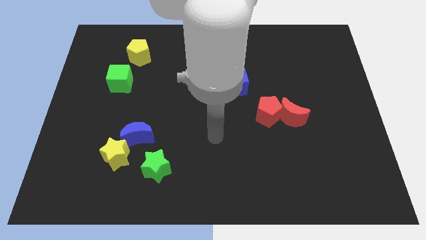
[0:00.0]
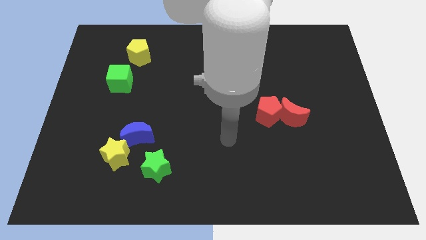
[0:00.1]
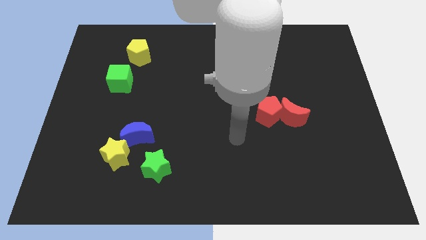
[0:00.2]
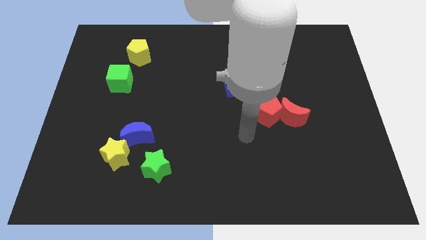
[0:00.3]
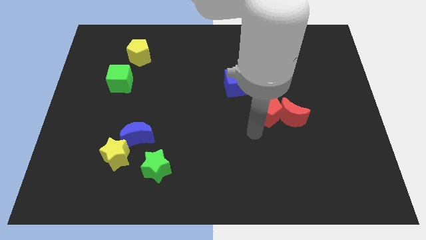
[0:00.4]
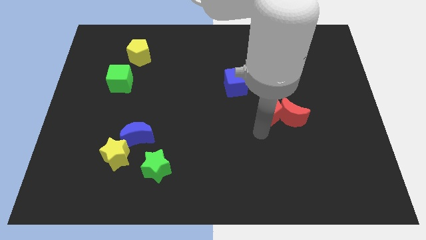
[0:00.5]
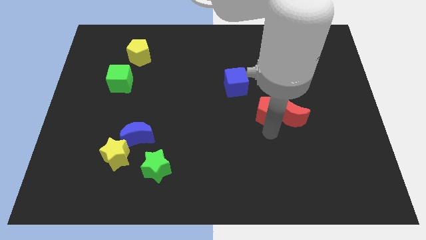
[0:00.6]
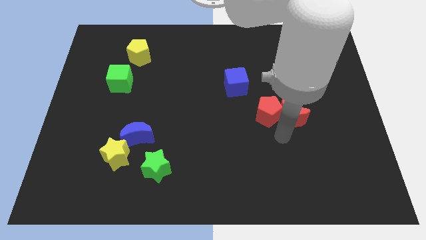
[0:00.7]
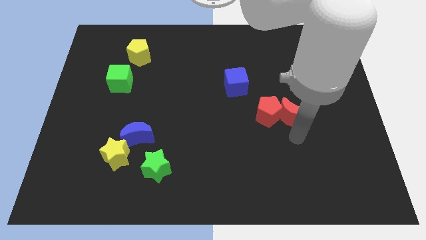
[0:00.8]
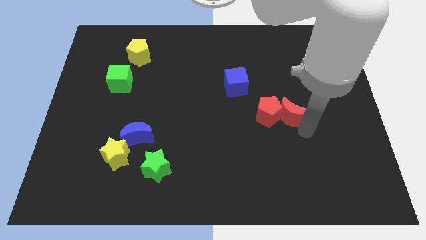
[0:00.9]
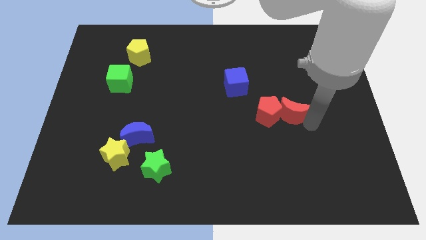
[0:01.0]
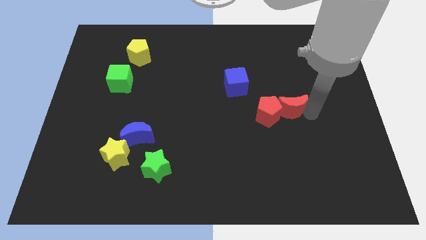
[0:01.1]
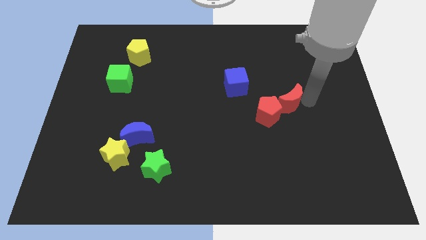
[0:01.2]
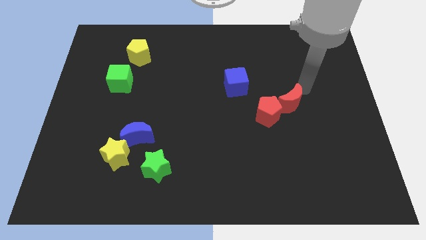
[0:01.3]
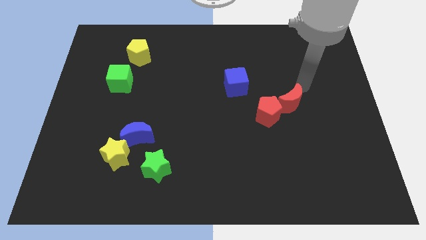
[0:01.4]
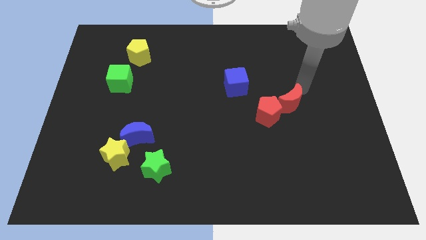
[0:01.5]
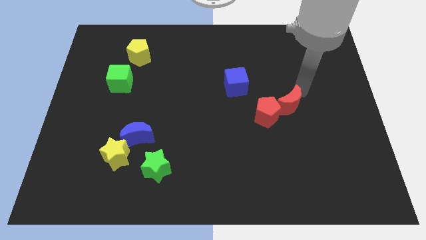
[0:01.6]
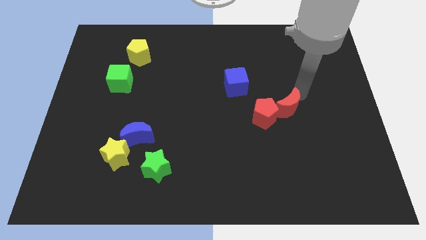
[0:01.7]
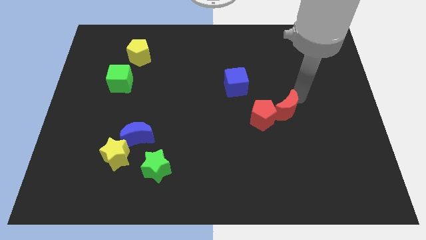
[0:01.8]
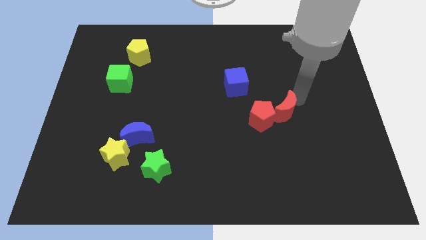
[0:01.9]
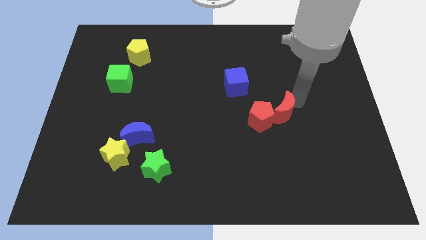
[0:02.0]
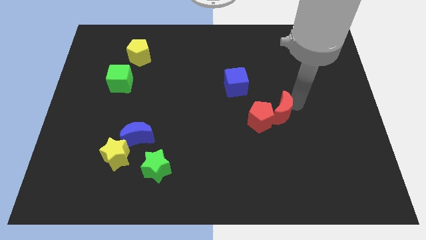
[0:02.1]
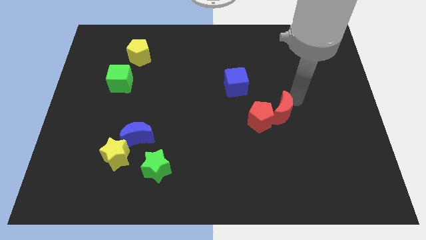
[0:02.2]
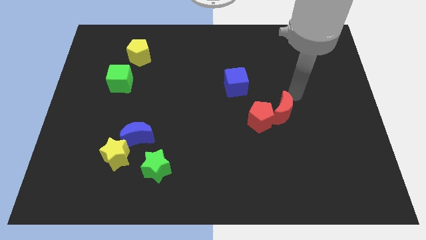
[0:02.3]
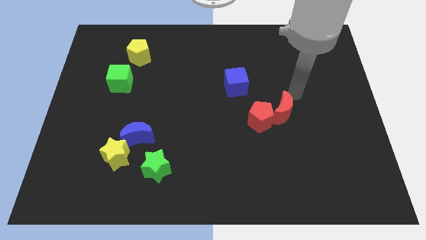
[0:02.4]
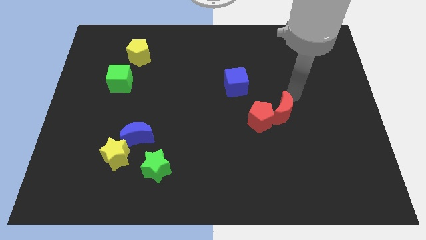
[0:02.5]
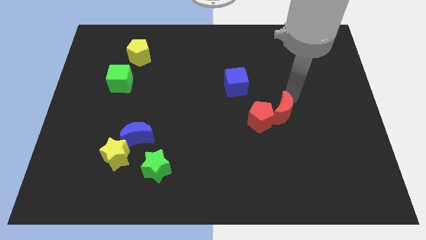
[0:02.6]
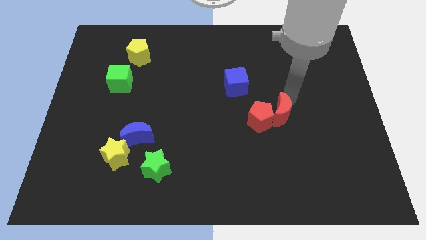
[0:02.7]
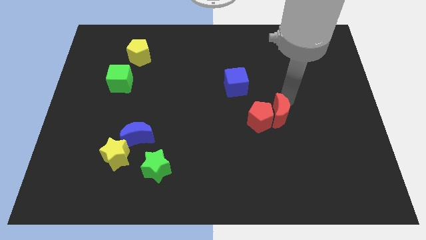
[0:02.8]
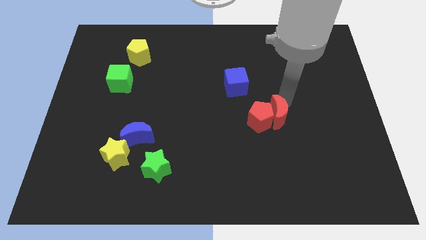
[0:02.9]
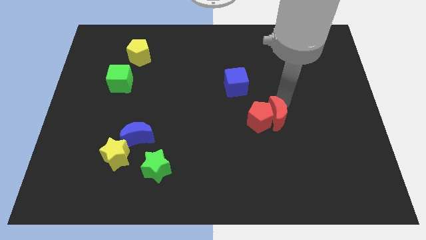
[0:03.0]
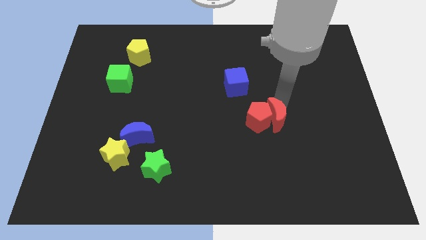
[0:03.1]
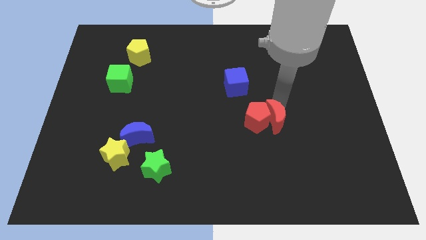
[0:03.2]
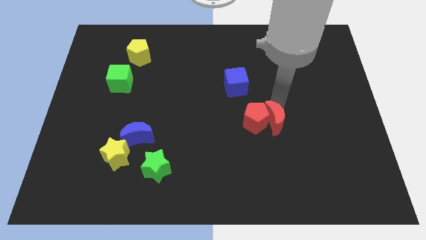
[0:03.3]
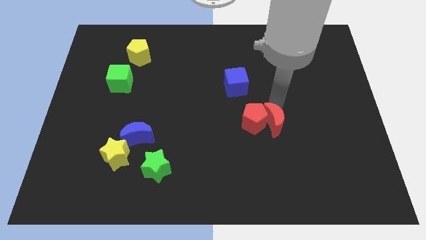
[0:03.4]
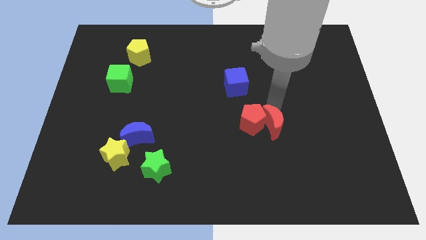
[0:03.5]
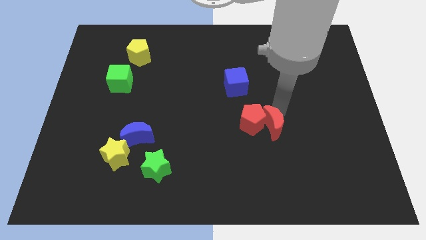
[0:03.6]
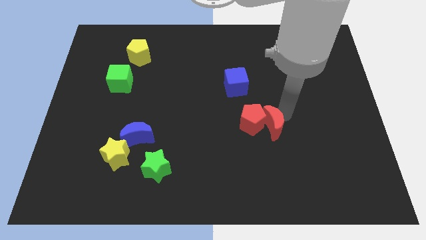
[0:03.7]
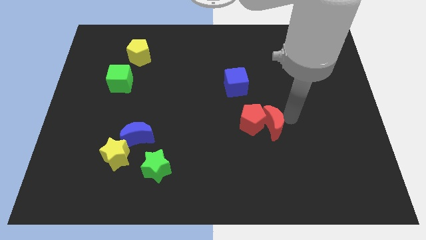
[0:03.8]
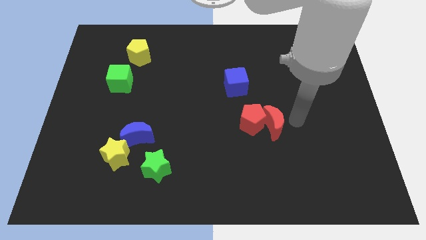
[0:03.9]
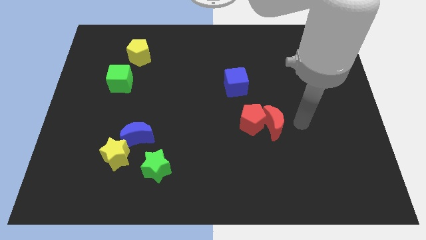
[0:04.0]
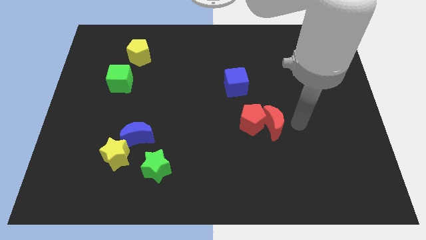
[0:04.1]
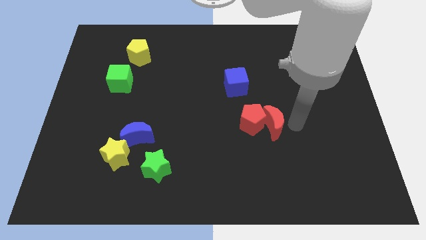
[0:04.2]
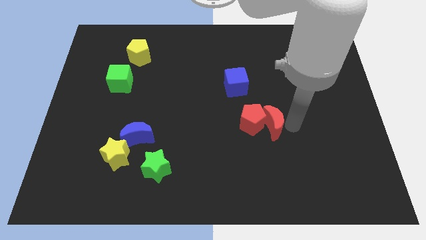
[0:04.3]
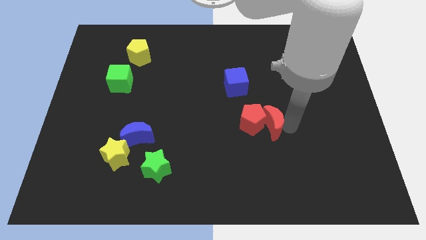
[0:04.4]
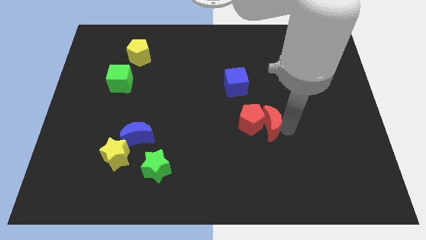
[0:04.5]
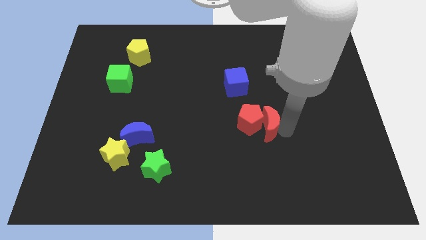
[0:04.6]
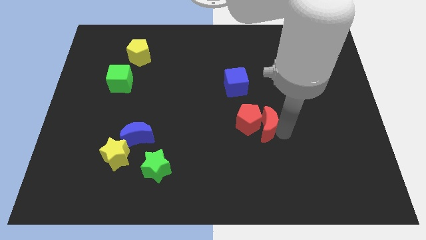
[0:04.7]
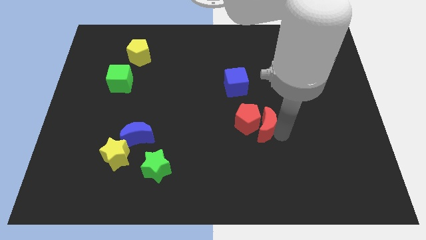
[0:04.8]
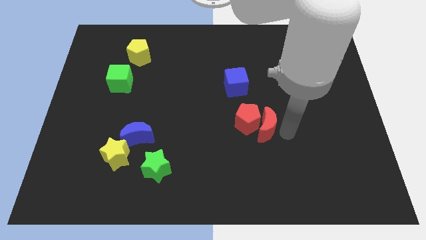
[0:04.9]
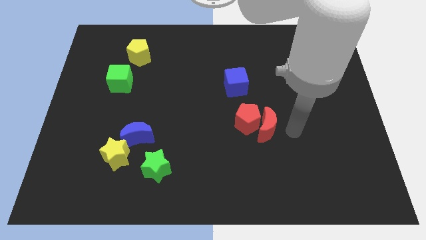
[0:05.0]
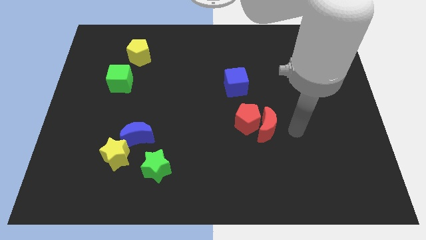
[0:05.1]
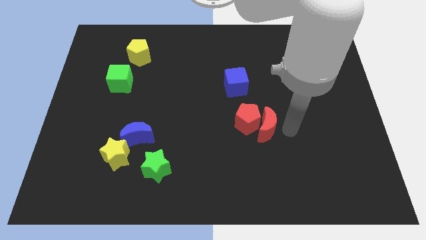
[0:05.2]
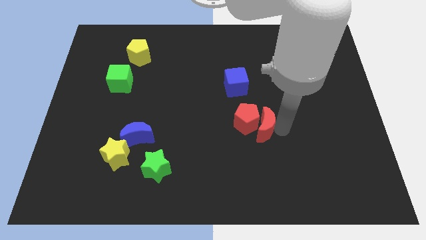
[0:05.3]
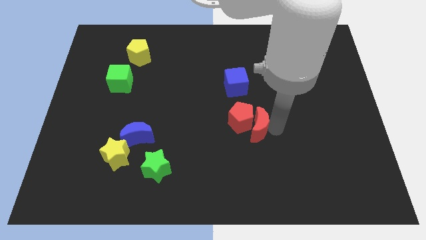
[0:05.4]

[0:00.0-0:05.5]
move the red moon slightly to the left

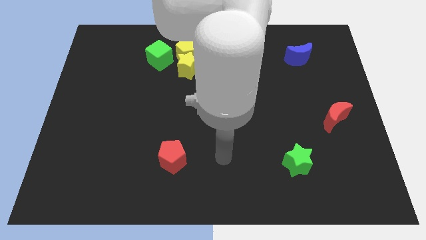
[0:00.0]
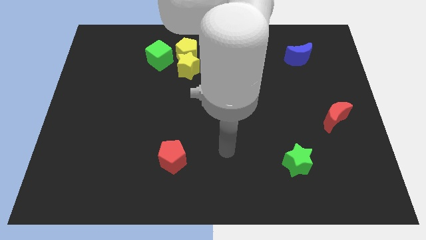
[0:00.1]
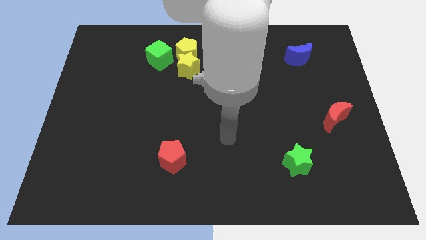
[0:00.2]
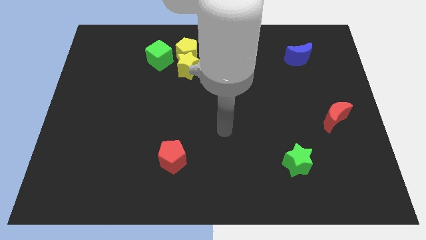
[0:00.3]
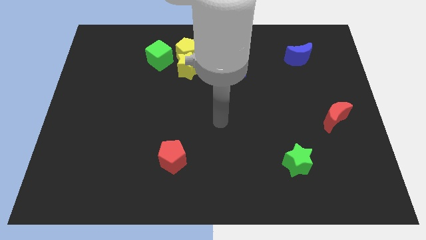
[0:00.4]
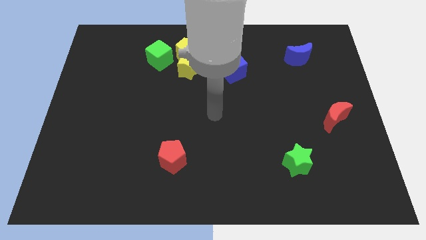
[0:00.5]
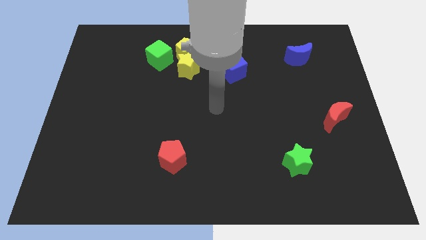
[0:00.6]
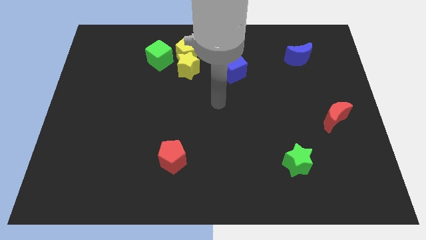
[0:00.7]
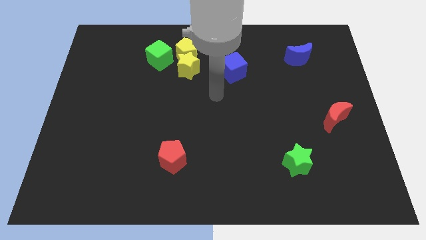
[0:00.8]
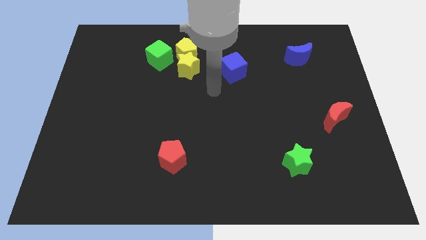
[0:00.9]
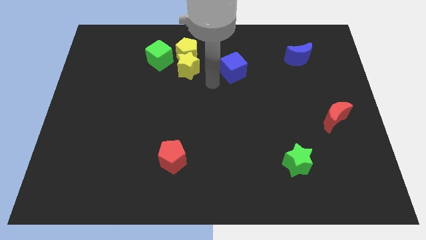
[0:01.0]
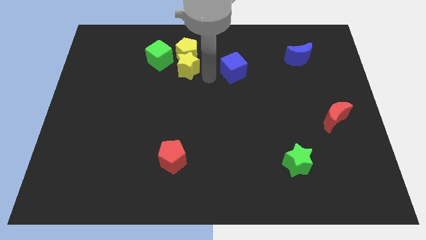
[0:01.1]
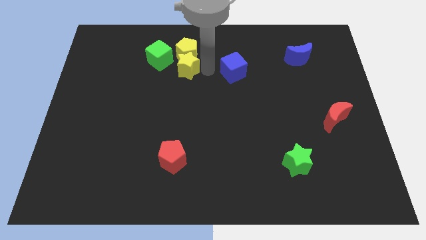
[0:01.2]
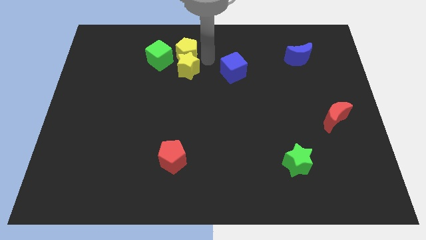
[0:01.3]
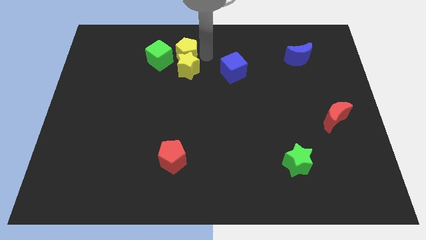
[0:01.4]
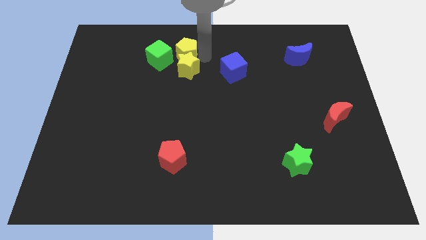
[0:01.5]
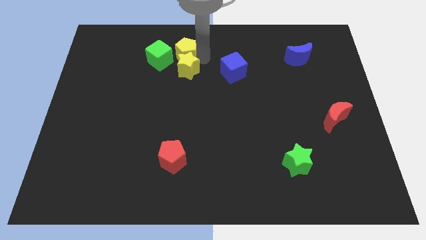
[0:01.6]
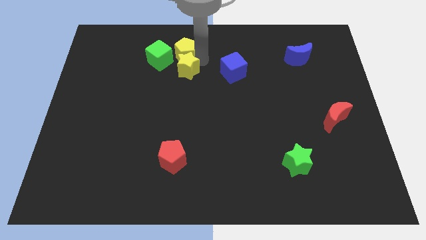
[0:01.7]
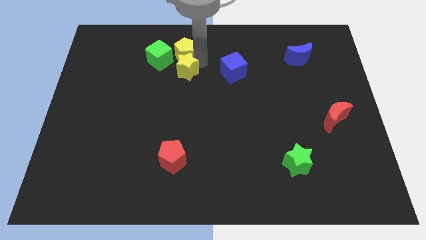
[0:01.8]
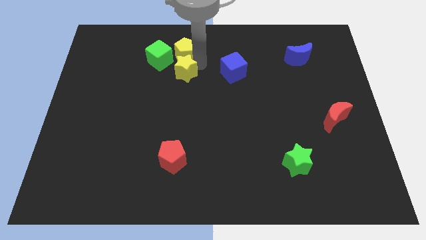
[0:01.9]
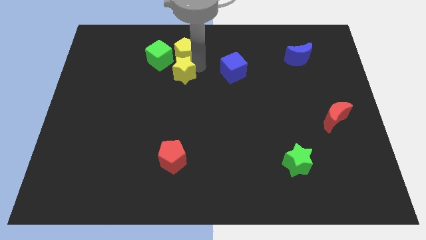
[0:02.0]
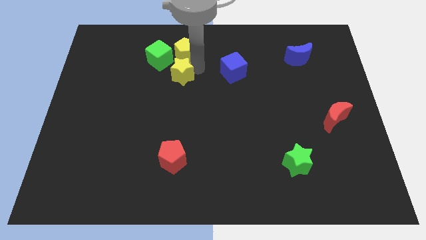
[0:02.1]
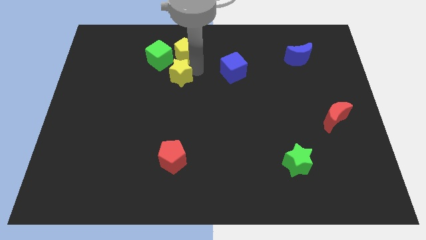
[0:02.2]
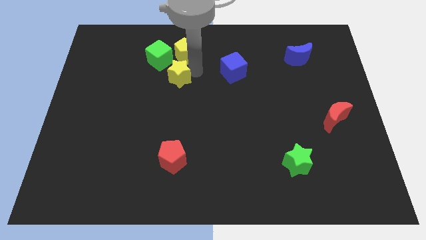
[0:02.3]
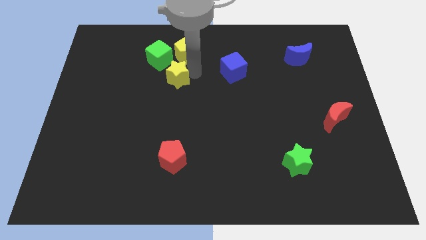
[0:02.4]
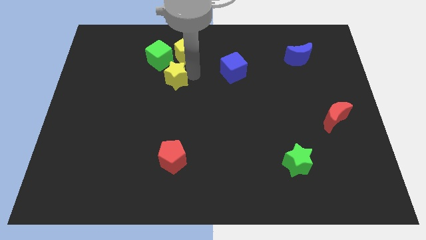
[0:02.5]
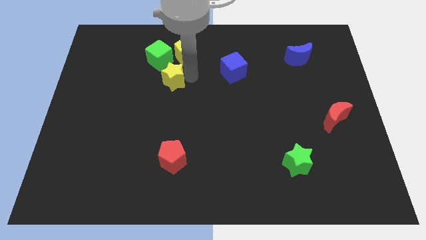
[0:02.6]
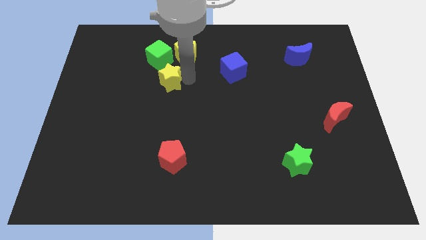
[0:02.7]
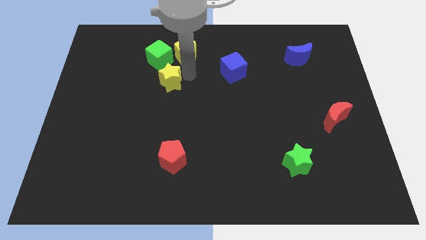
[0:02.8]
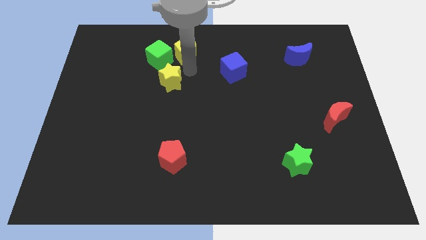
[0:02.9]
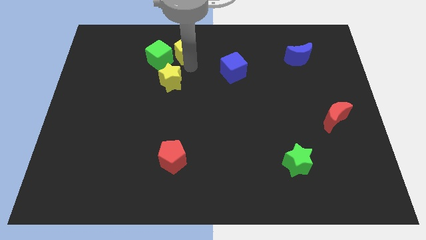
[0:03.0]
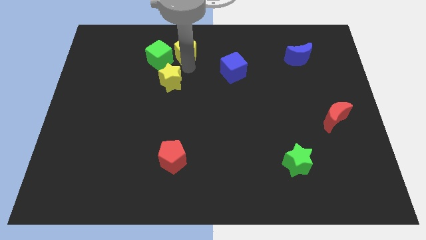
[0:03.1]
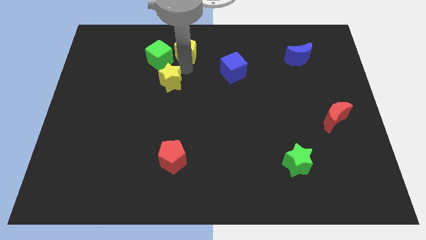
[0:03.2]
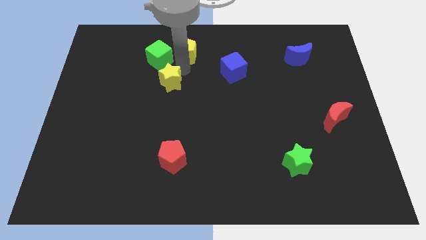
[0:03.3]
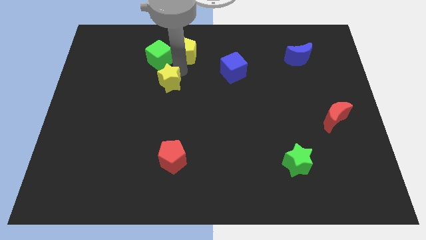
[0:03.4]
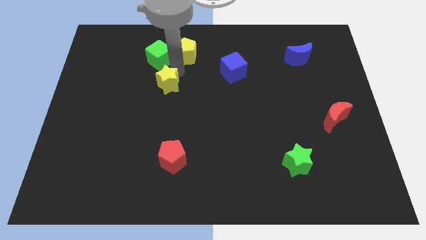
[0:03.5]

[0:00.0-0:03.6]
slightly move the yellow star downwards and left diagonally
